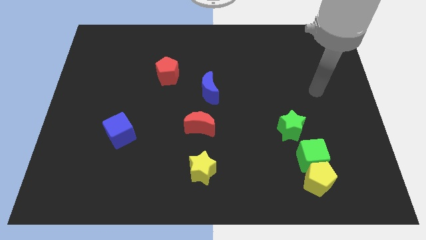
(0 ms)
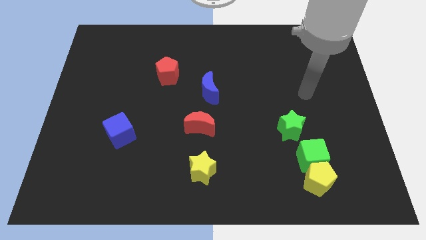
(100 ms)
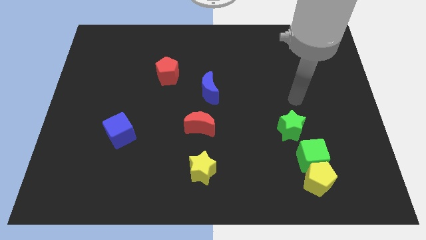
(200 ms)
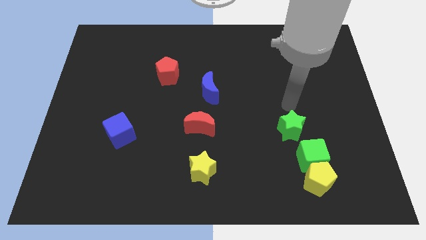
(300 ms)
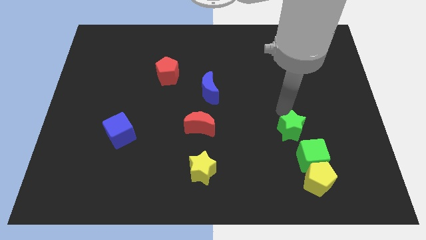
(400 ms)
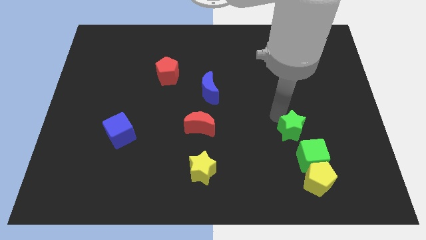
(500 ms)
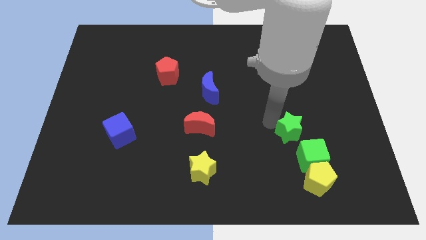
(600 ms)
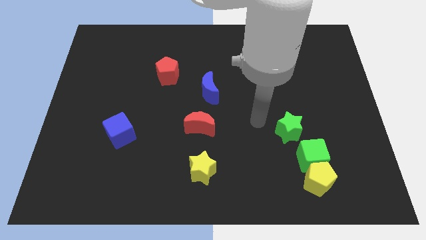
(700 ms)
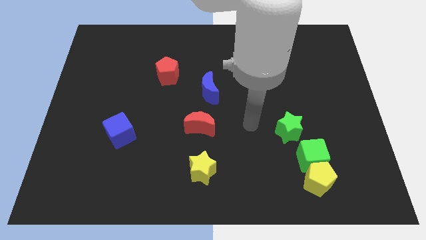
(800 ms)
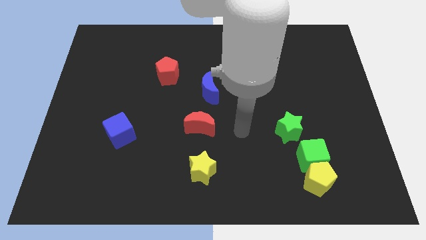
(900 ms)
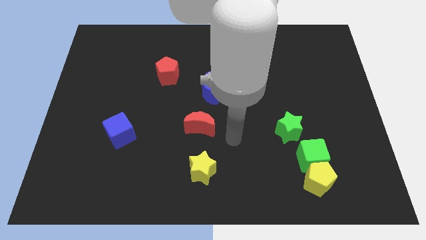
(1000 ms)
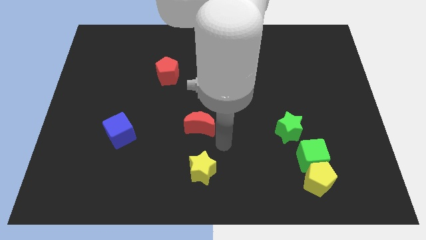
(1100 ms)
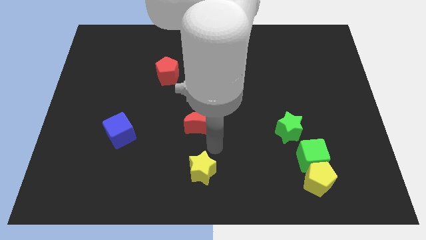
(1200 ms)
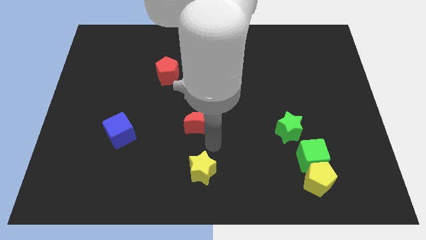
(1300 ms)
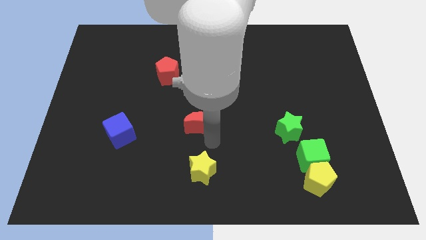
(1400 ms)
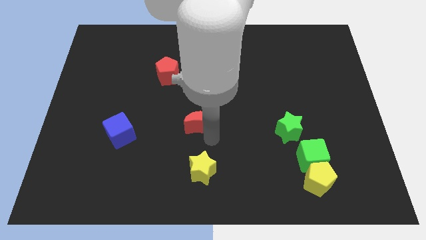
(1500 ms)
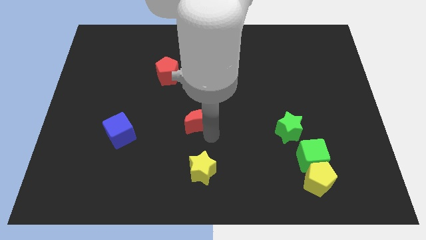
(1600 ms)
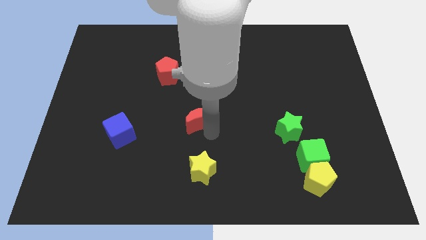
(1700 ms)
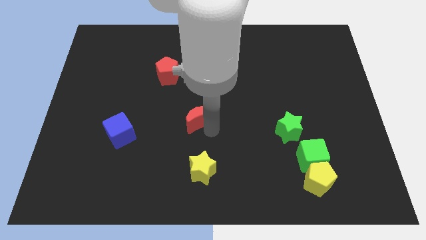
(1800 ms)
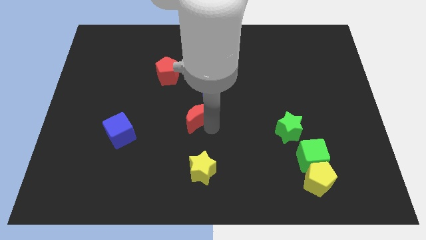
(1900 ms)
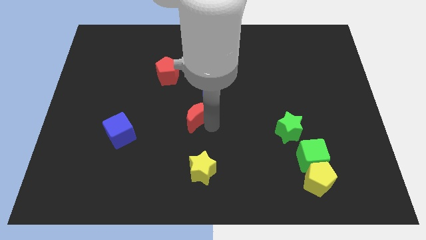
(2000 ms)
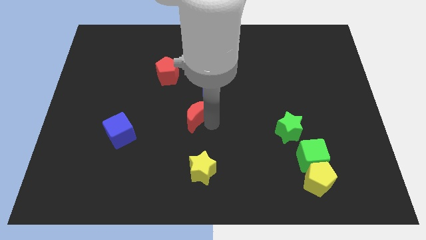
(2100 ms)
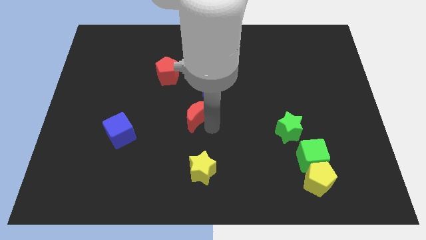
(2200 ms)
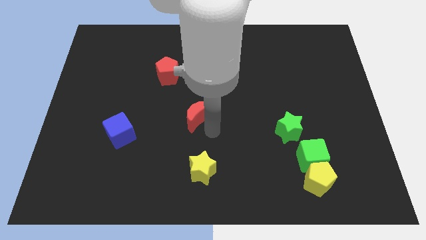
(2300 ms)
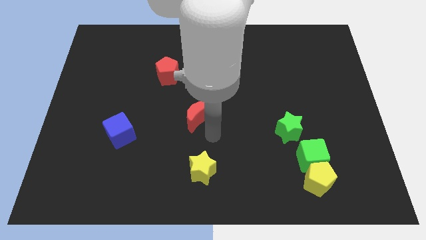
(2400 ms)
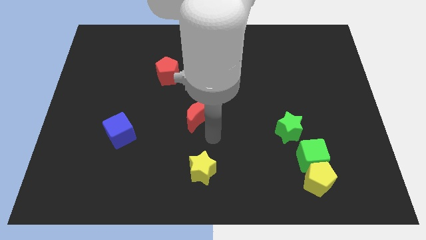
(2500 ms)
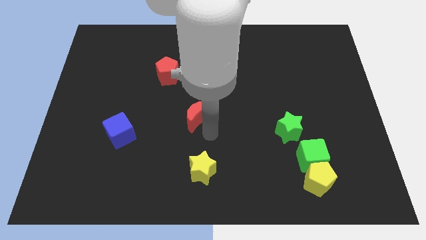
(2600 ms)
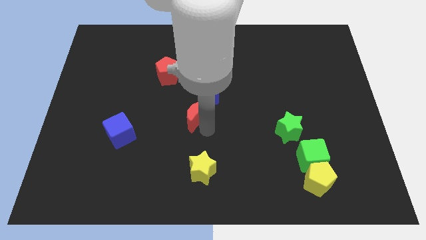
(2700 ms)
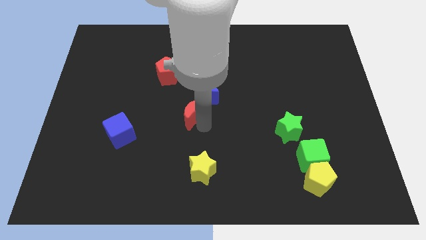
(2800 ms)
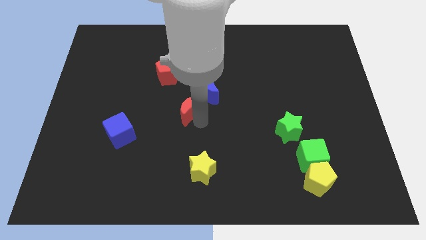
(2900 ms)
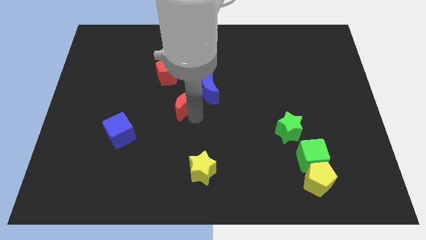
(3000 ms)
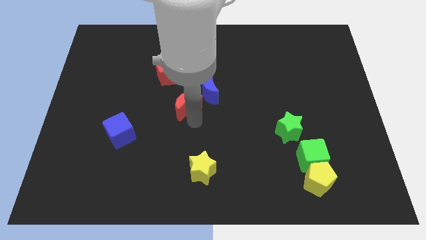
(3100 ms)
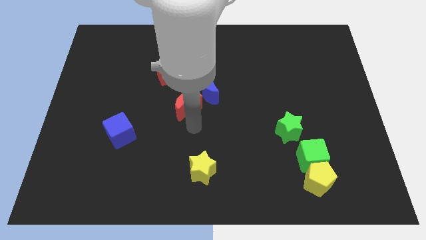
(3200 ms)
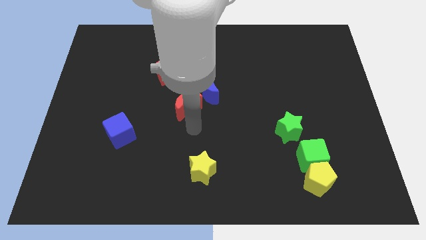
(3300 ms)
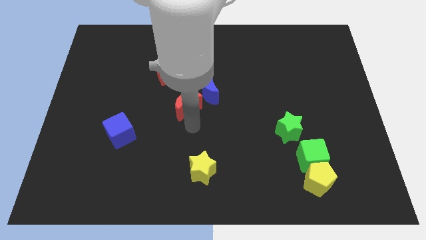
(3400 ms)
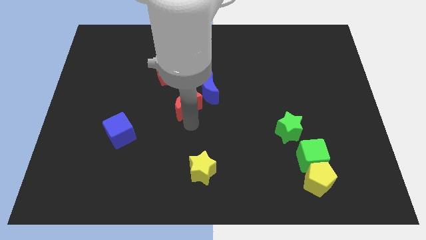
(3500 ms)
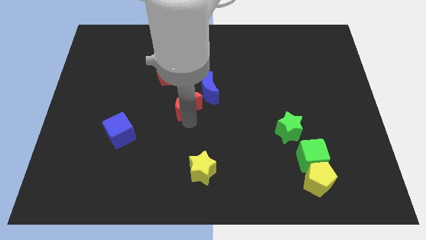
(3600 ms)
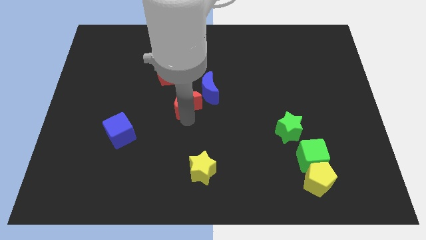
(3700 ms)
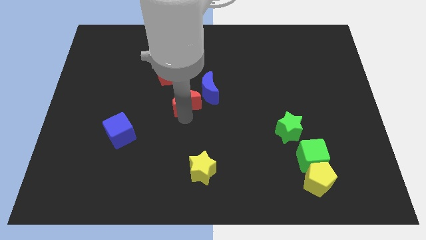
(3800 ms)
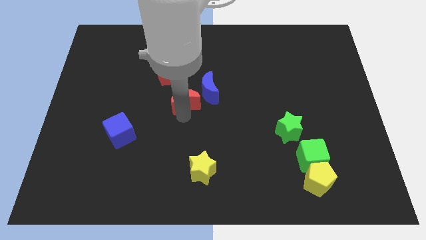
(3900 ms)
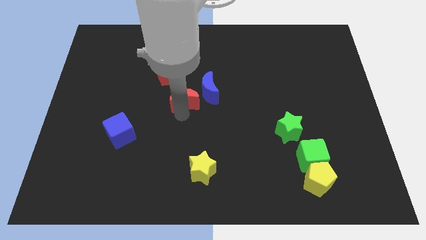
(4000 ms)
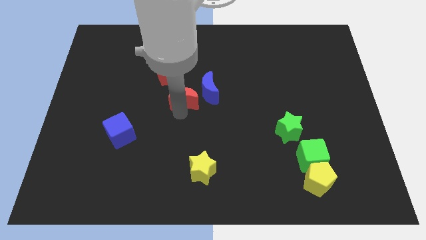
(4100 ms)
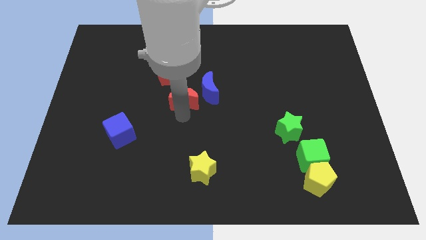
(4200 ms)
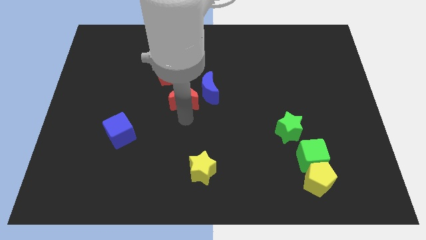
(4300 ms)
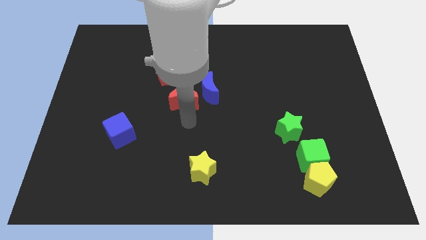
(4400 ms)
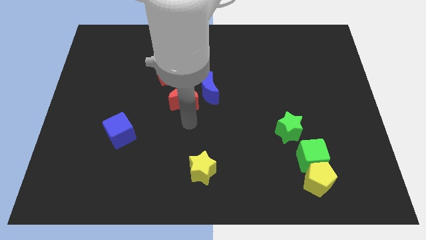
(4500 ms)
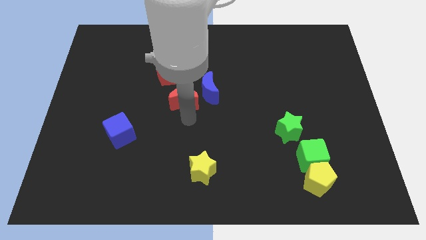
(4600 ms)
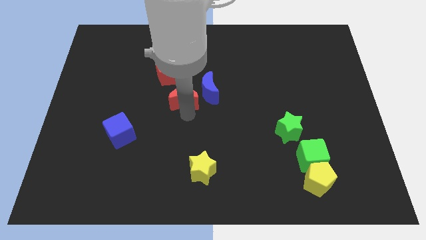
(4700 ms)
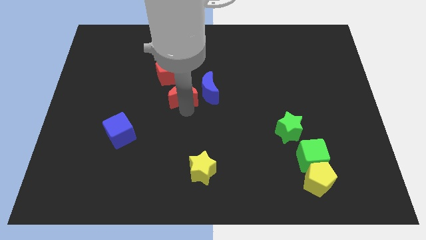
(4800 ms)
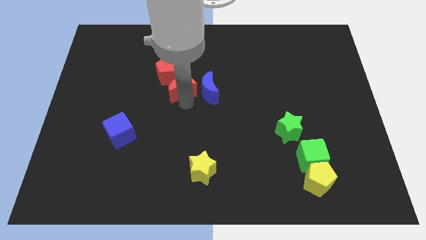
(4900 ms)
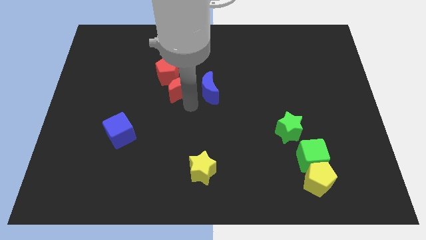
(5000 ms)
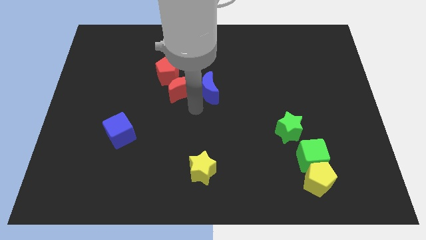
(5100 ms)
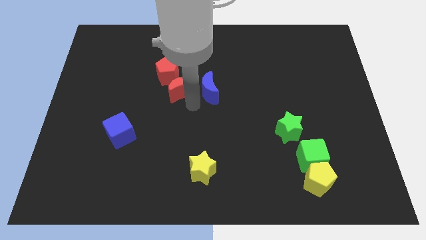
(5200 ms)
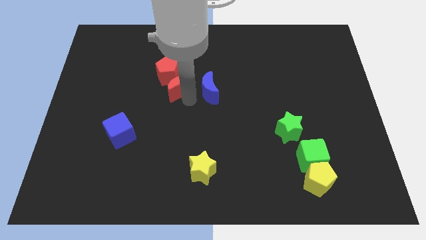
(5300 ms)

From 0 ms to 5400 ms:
put the red moon to the red pentagon

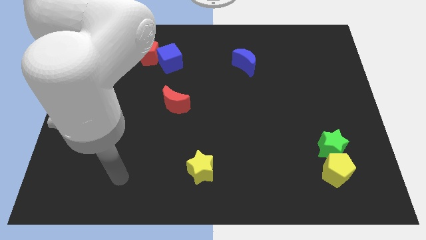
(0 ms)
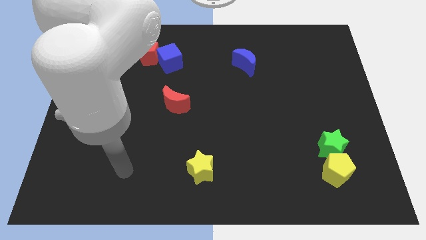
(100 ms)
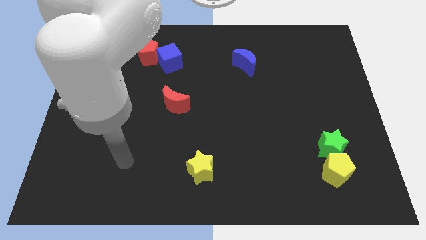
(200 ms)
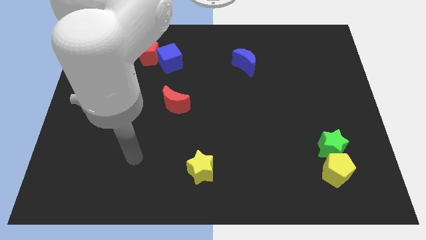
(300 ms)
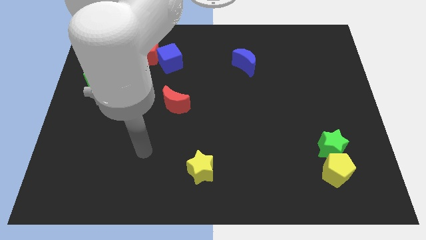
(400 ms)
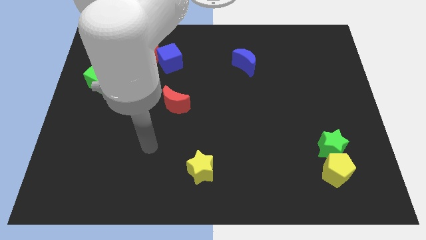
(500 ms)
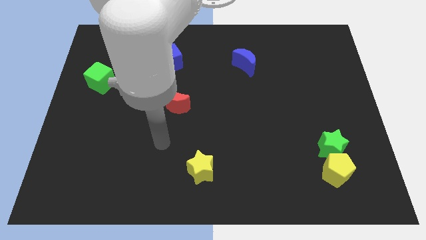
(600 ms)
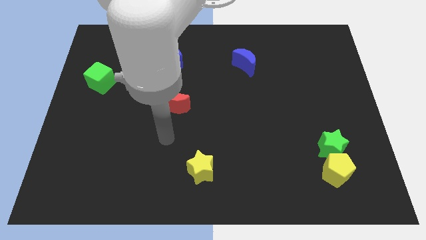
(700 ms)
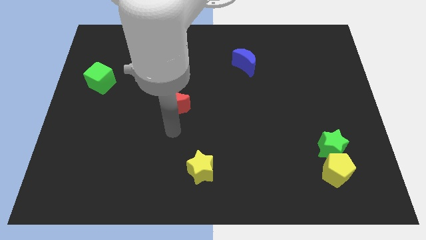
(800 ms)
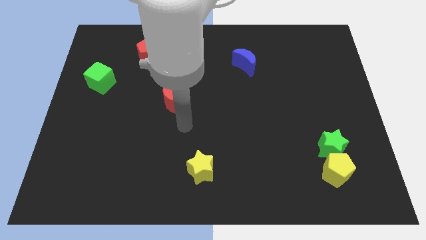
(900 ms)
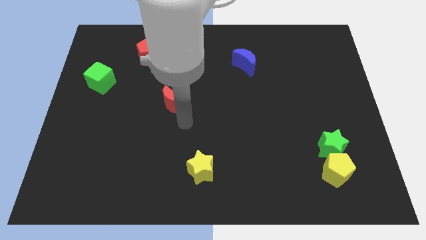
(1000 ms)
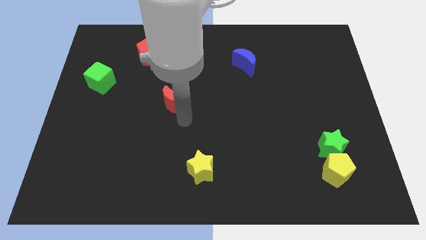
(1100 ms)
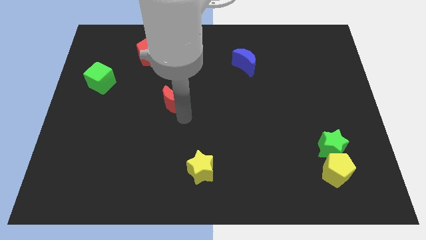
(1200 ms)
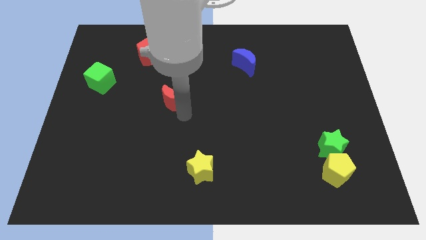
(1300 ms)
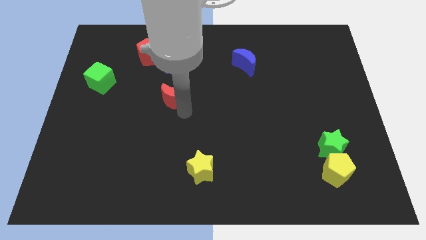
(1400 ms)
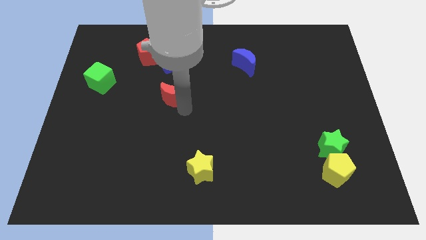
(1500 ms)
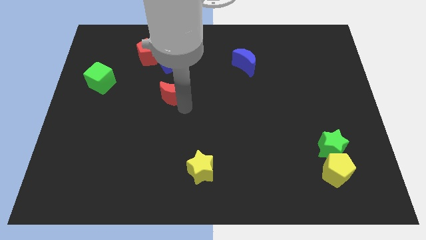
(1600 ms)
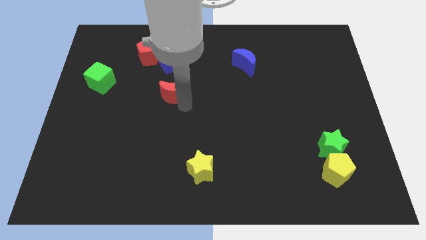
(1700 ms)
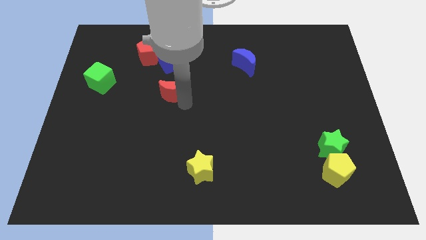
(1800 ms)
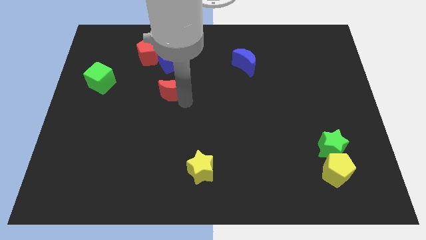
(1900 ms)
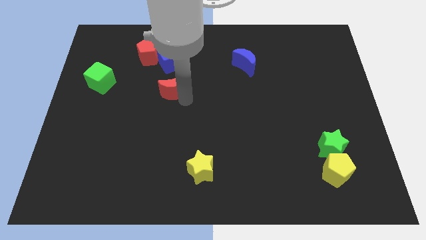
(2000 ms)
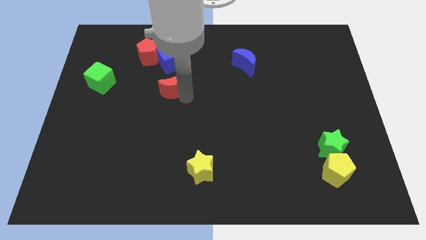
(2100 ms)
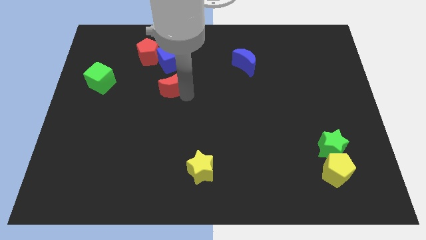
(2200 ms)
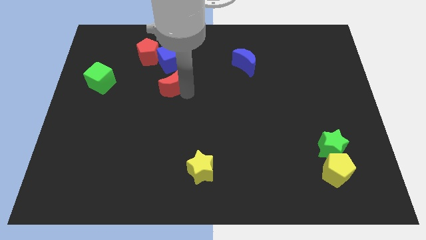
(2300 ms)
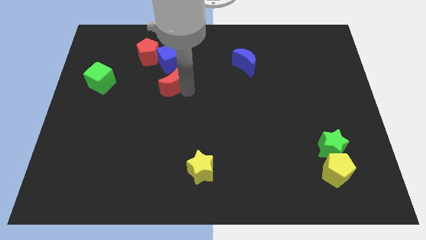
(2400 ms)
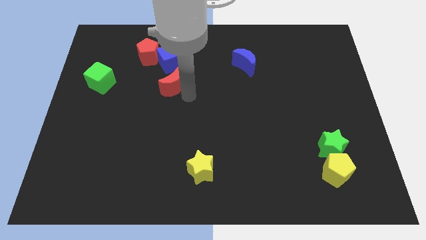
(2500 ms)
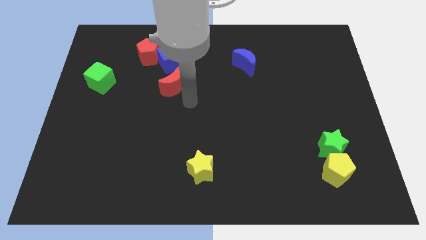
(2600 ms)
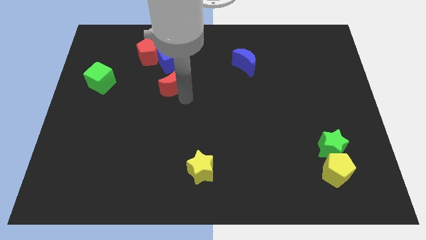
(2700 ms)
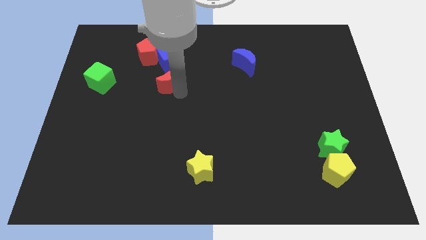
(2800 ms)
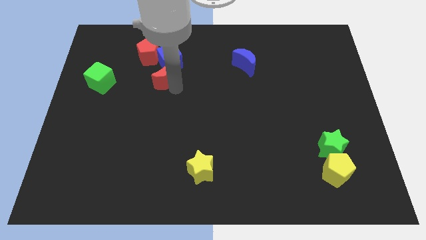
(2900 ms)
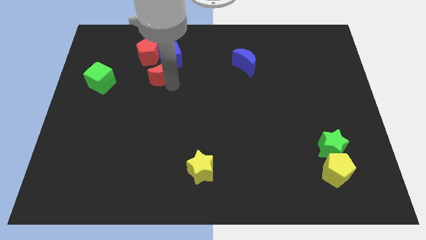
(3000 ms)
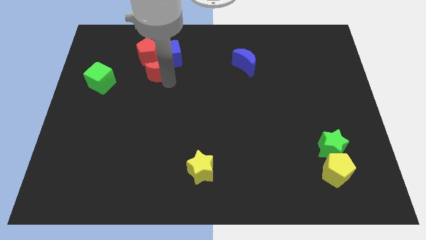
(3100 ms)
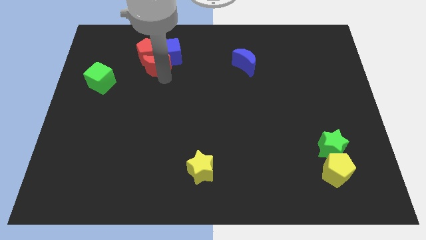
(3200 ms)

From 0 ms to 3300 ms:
slide the red moon towards the red pentagon
